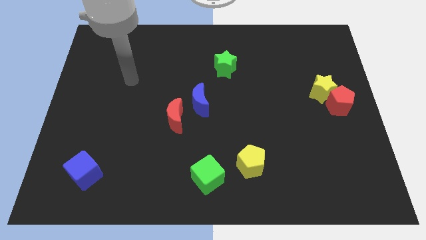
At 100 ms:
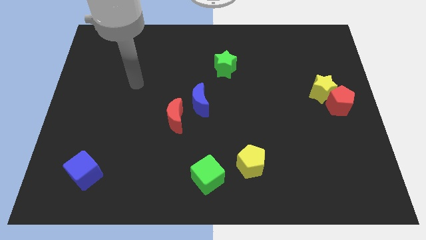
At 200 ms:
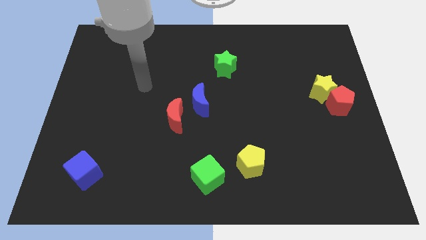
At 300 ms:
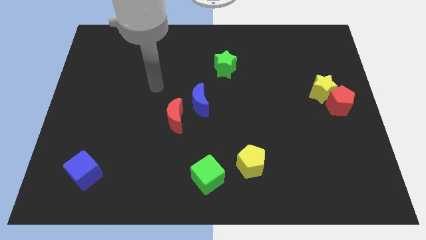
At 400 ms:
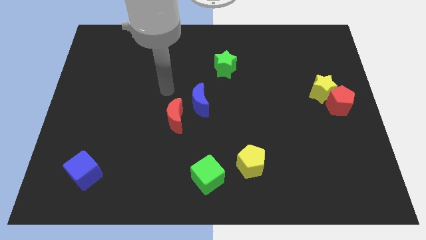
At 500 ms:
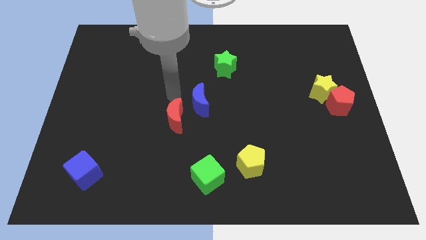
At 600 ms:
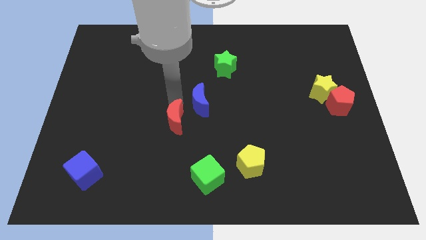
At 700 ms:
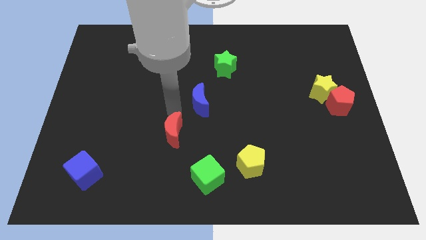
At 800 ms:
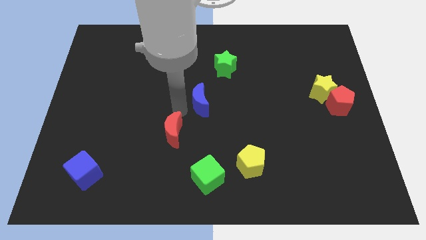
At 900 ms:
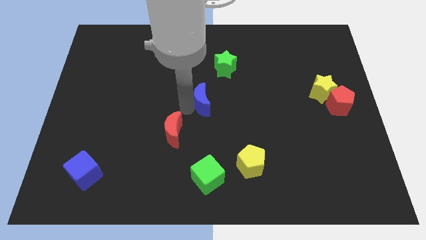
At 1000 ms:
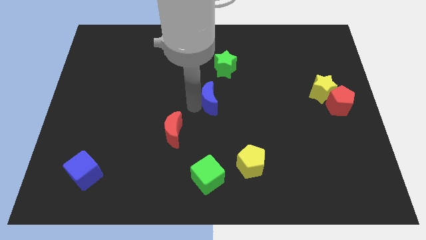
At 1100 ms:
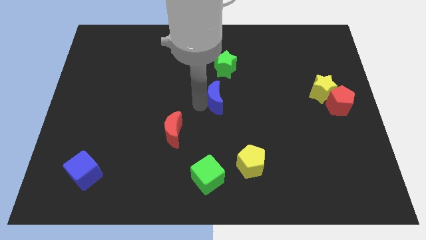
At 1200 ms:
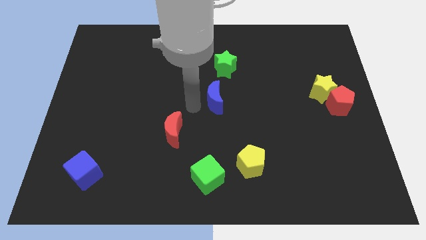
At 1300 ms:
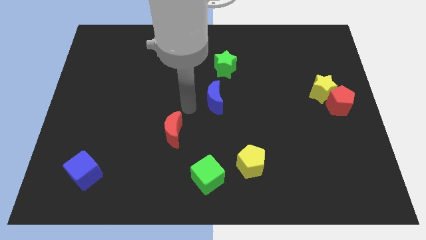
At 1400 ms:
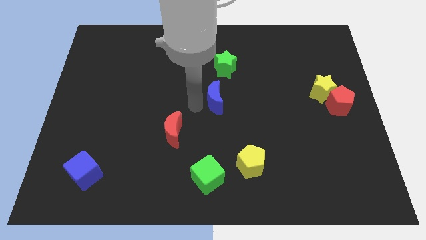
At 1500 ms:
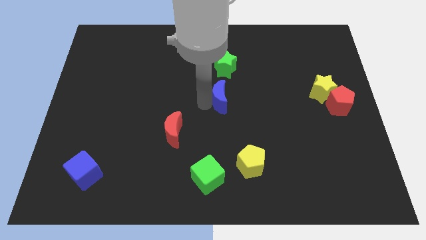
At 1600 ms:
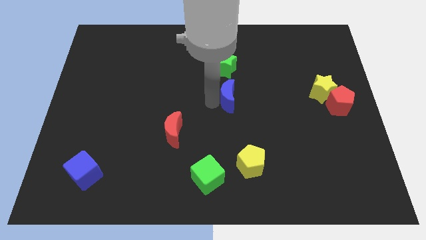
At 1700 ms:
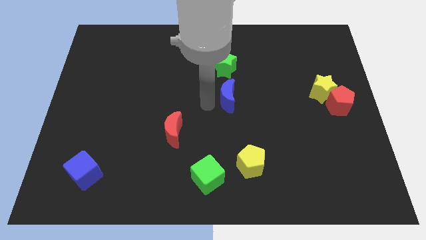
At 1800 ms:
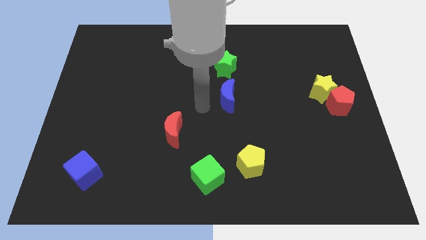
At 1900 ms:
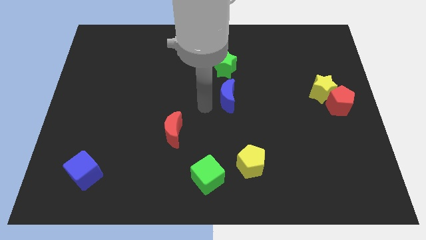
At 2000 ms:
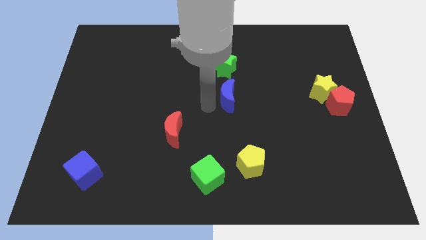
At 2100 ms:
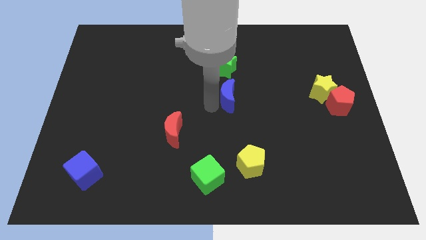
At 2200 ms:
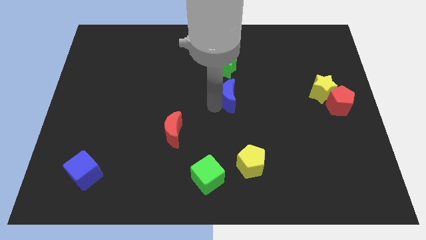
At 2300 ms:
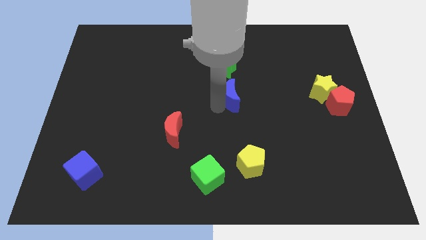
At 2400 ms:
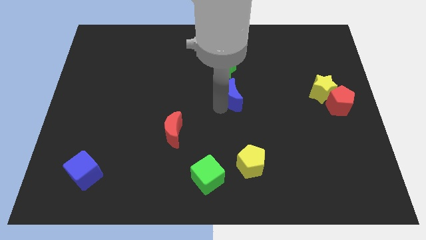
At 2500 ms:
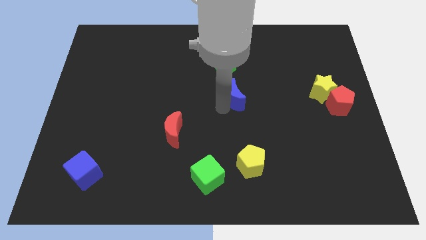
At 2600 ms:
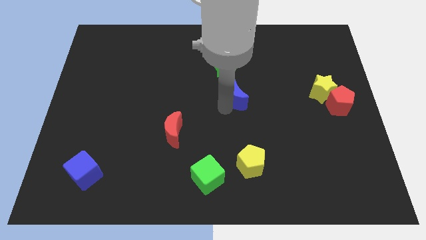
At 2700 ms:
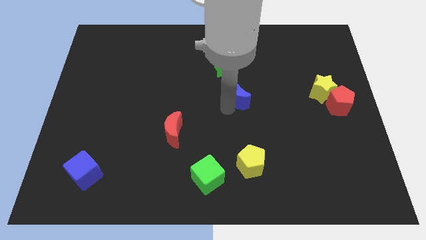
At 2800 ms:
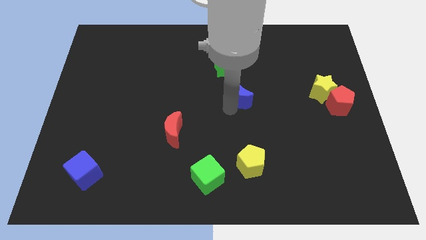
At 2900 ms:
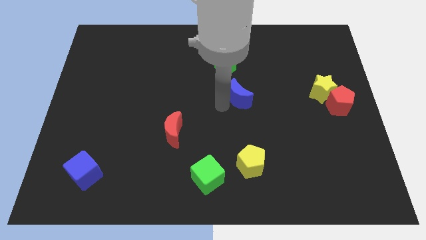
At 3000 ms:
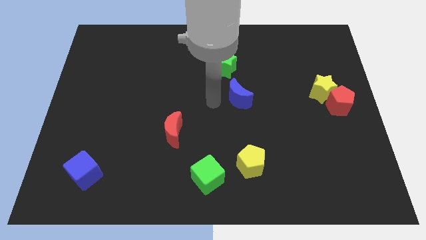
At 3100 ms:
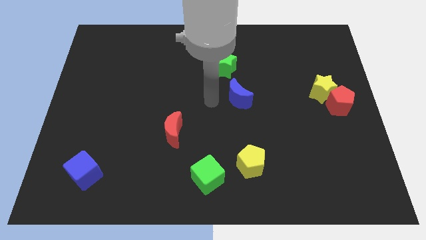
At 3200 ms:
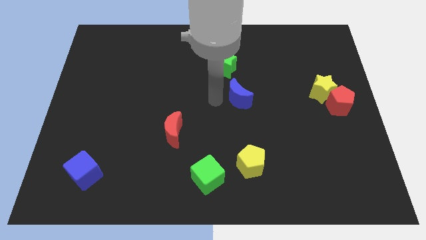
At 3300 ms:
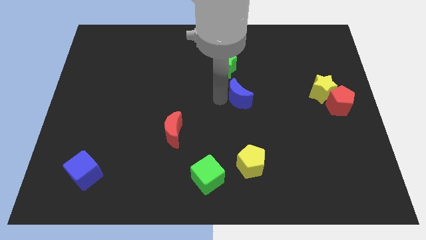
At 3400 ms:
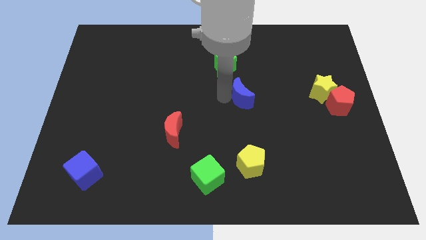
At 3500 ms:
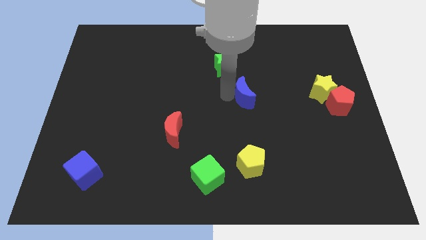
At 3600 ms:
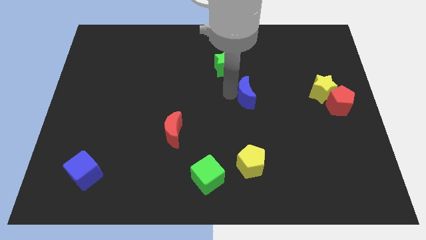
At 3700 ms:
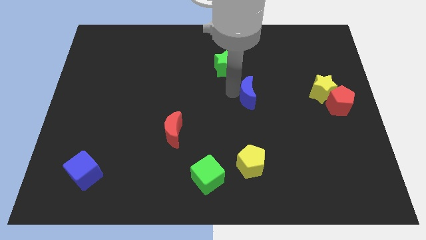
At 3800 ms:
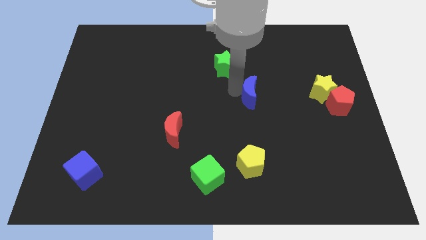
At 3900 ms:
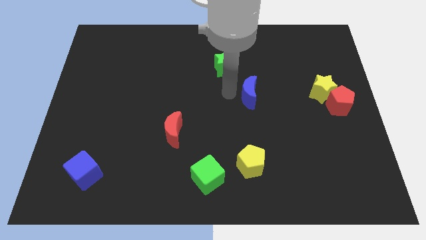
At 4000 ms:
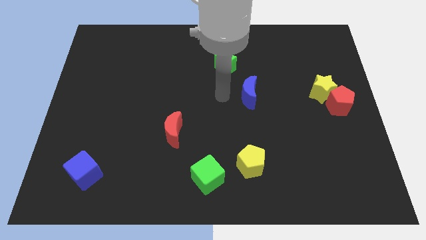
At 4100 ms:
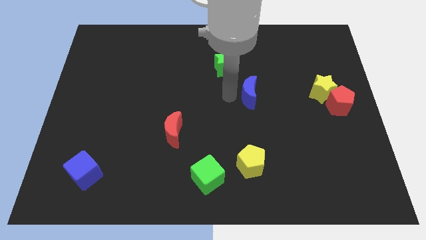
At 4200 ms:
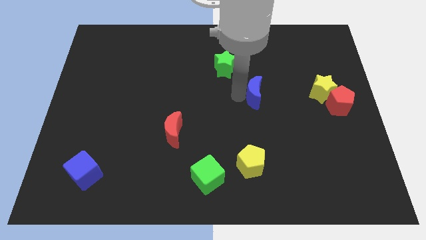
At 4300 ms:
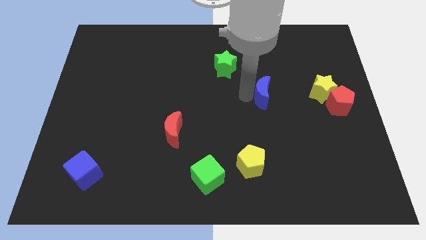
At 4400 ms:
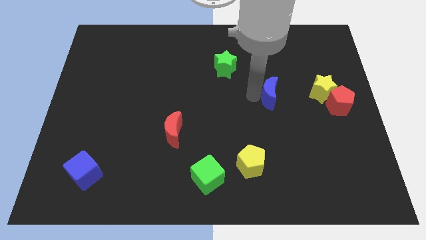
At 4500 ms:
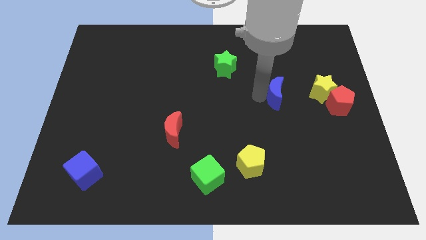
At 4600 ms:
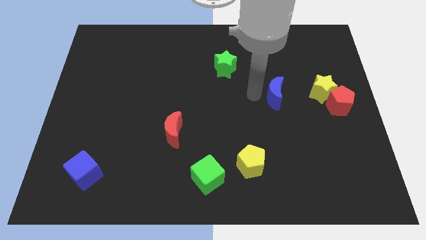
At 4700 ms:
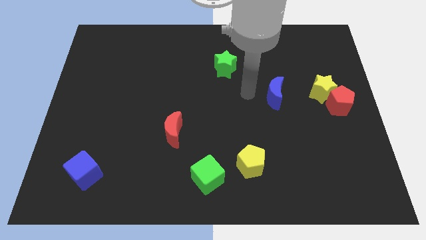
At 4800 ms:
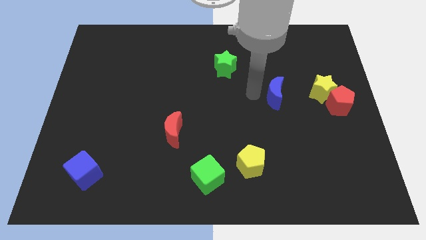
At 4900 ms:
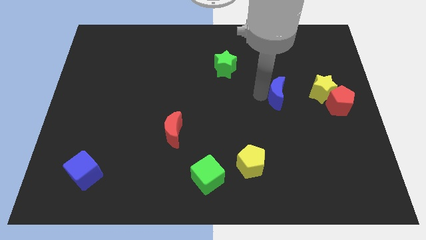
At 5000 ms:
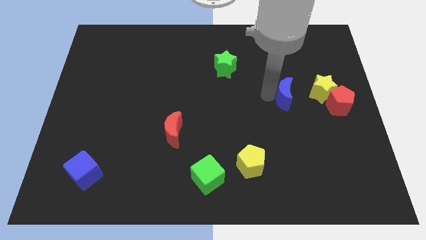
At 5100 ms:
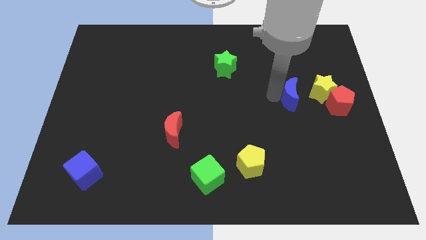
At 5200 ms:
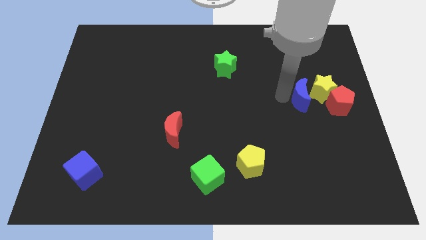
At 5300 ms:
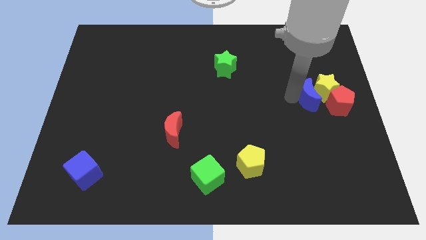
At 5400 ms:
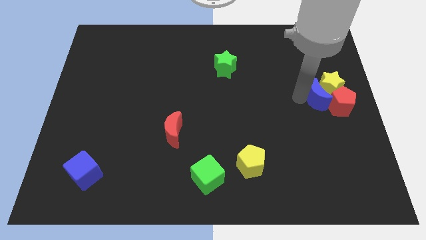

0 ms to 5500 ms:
move the blue moon to the red pentagon

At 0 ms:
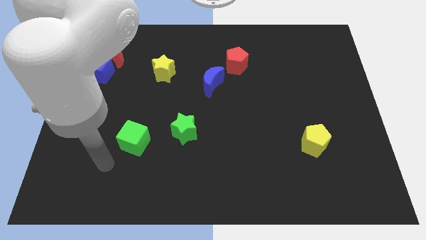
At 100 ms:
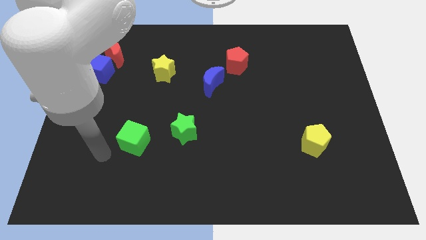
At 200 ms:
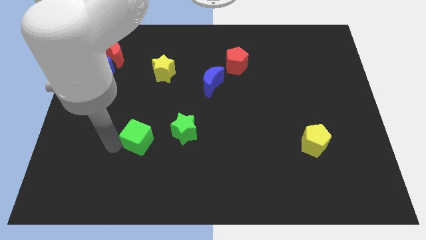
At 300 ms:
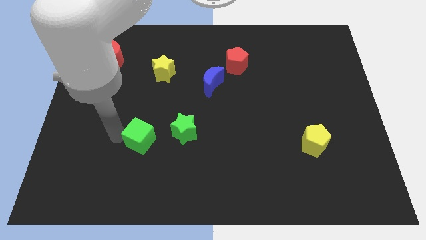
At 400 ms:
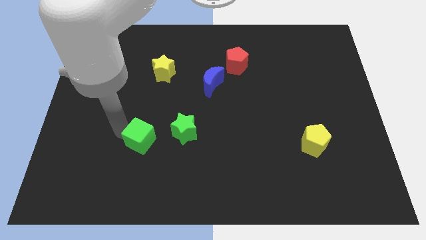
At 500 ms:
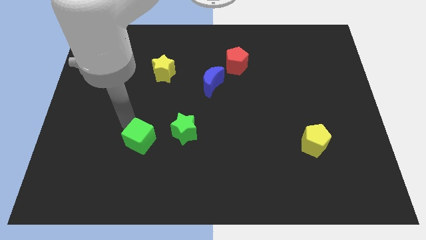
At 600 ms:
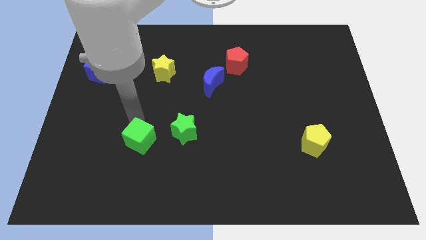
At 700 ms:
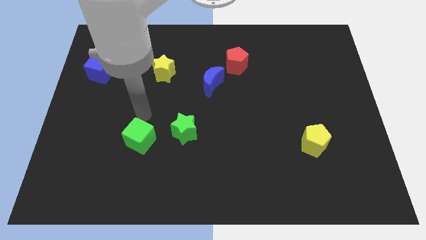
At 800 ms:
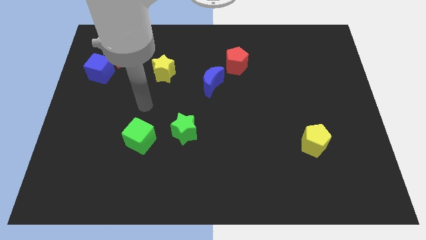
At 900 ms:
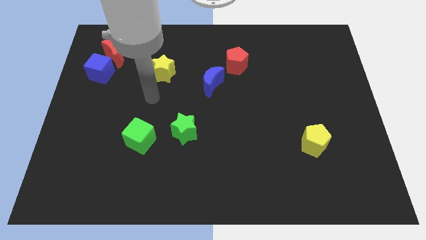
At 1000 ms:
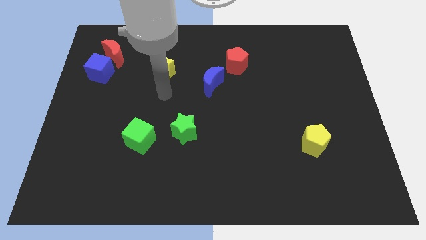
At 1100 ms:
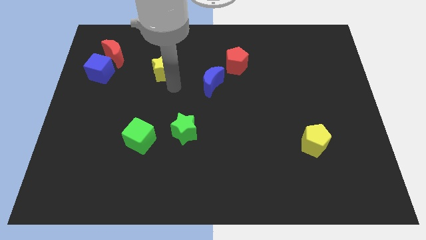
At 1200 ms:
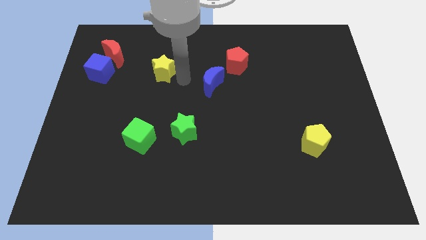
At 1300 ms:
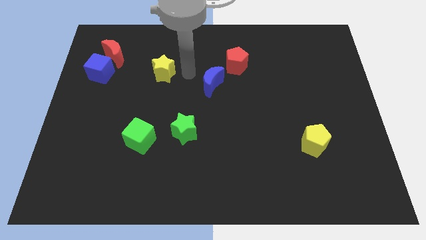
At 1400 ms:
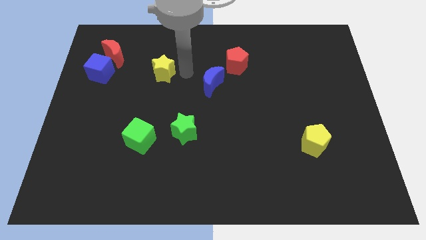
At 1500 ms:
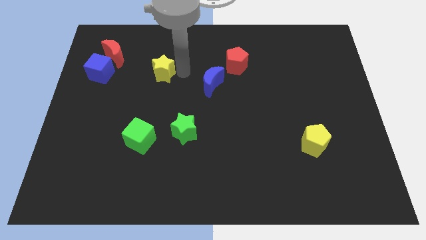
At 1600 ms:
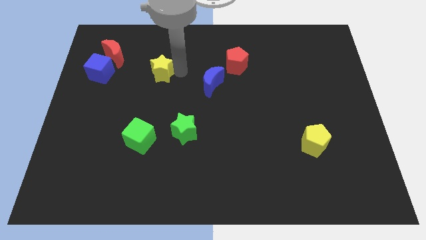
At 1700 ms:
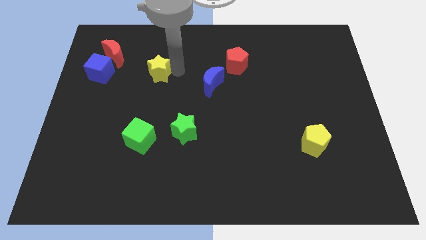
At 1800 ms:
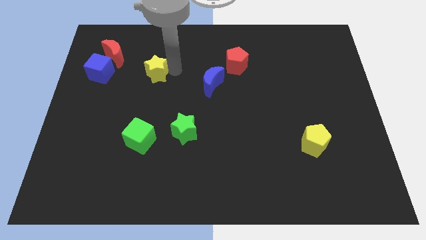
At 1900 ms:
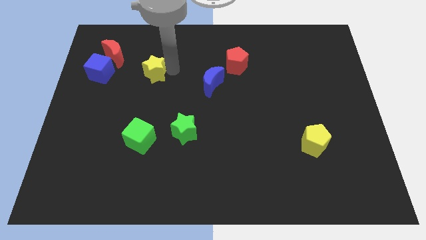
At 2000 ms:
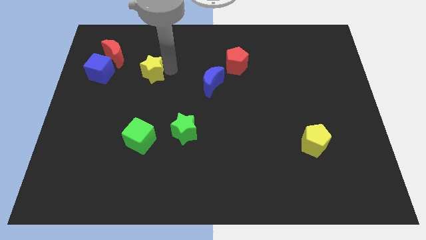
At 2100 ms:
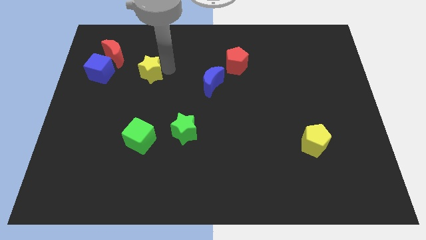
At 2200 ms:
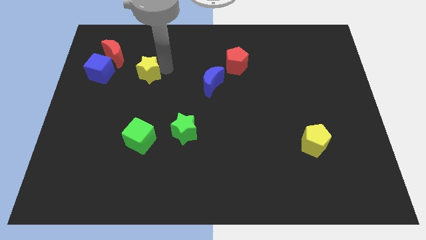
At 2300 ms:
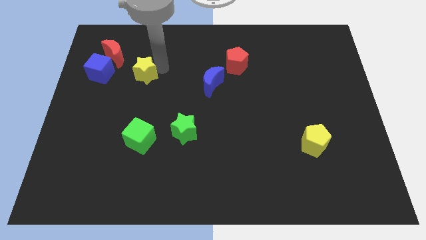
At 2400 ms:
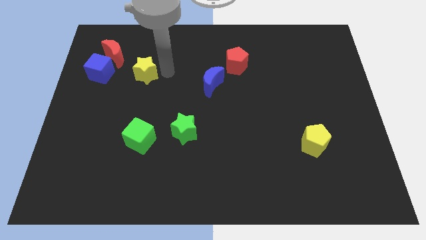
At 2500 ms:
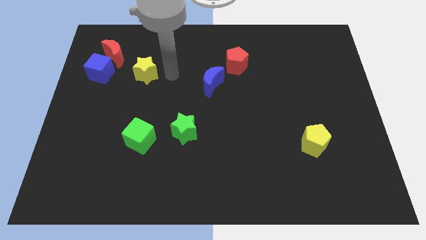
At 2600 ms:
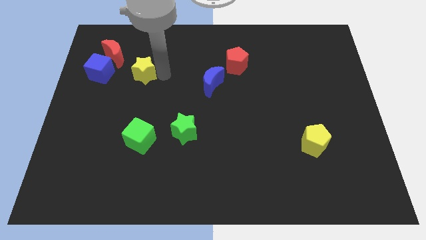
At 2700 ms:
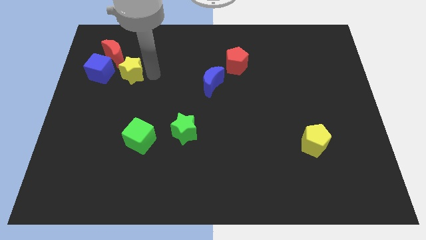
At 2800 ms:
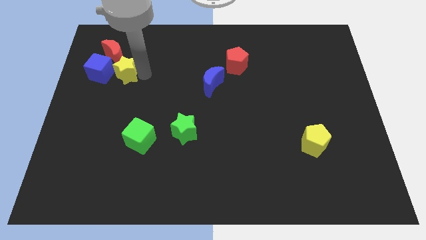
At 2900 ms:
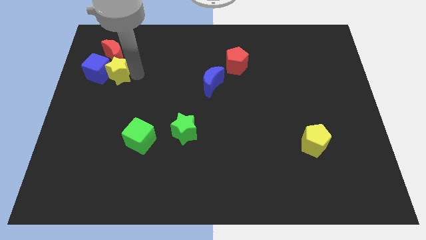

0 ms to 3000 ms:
push the yellow star to the blue cube
